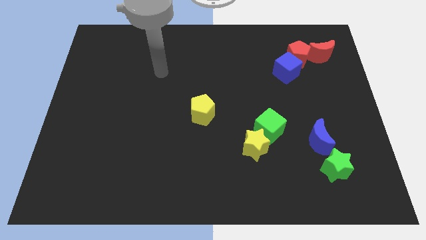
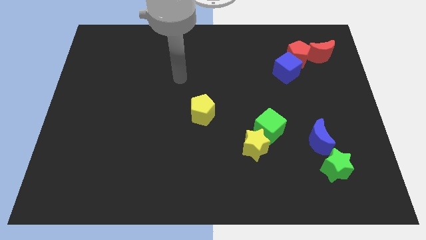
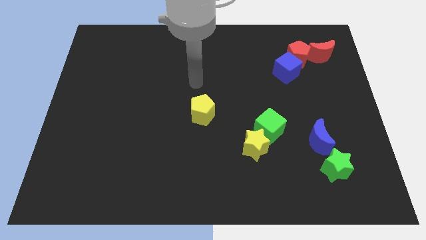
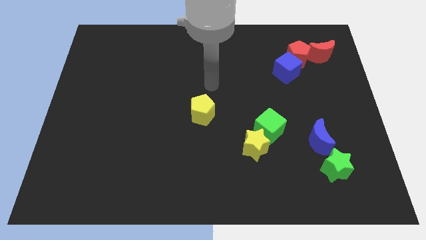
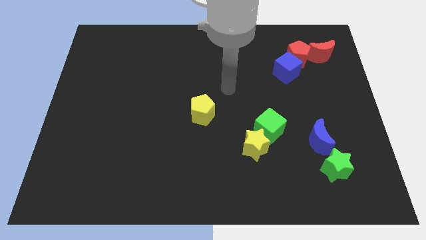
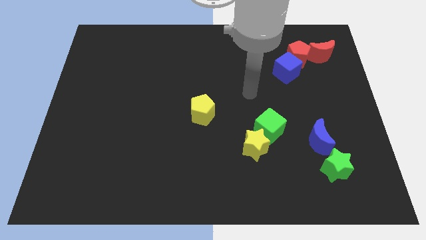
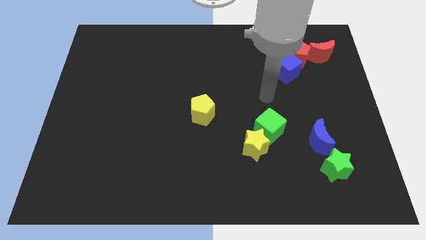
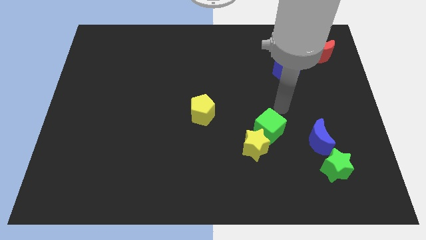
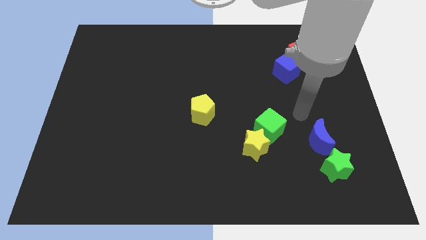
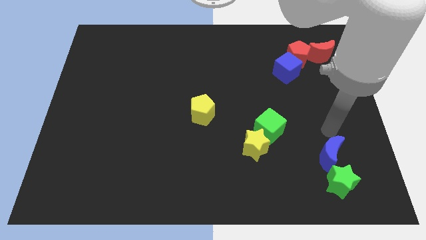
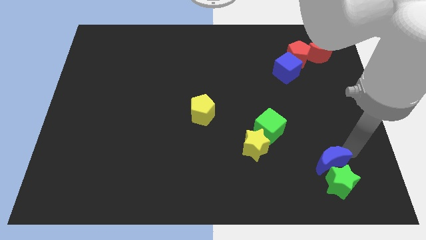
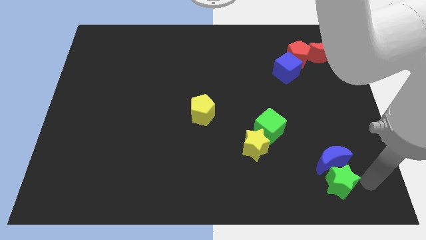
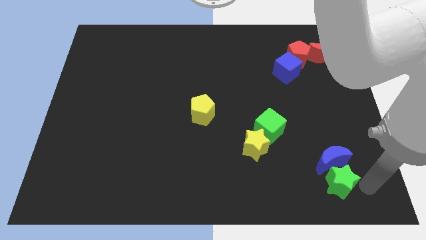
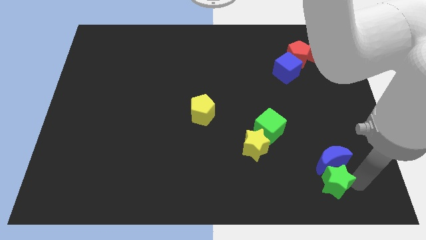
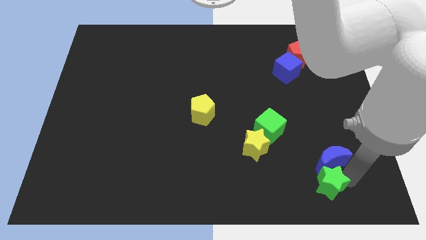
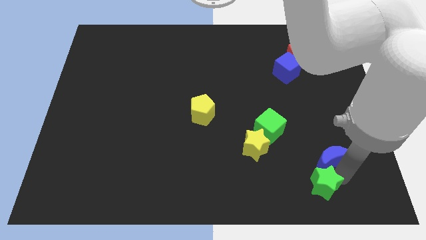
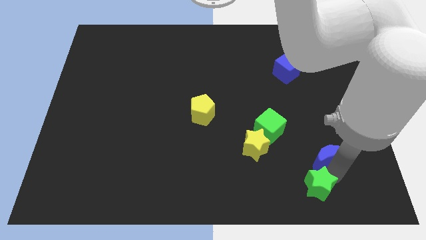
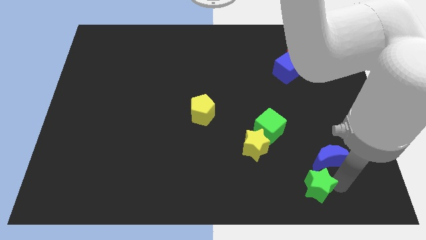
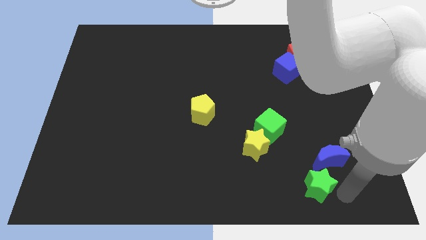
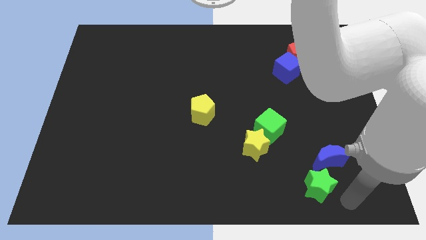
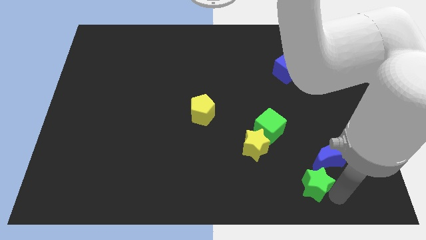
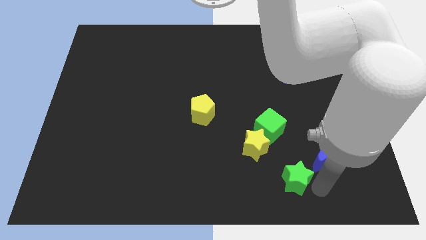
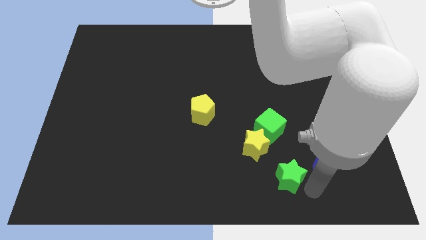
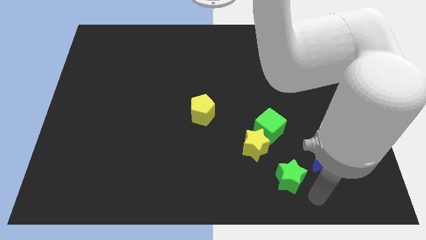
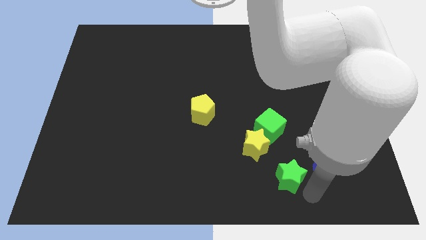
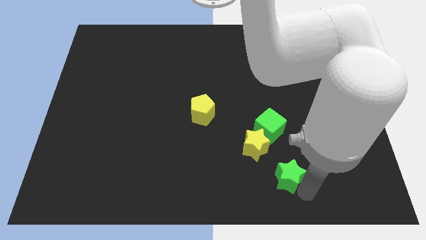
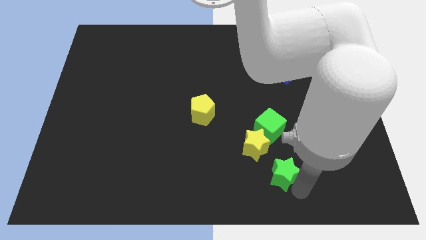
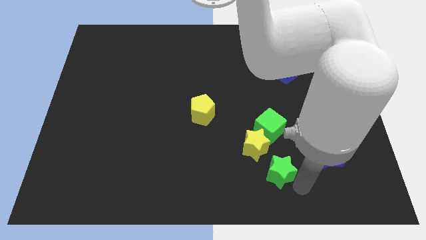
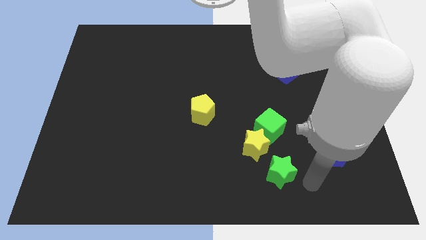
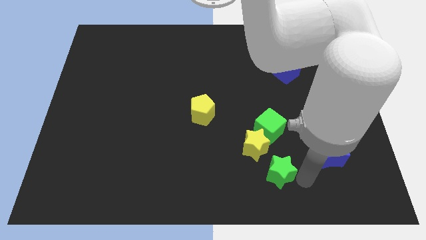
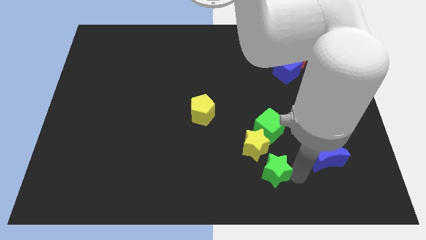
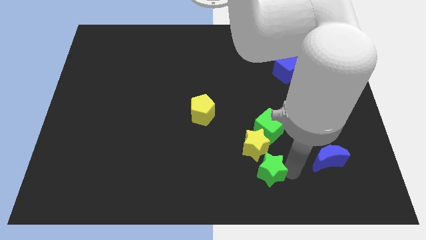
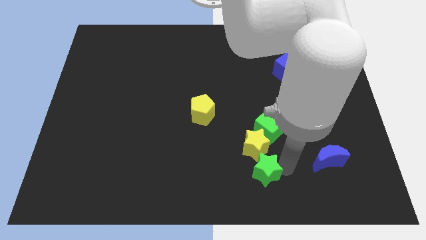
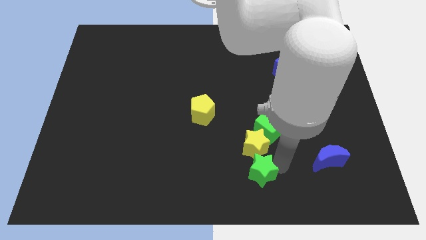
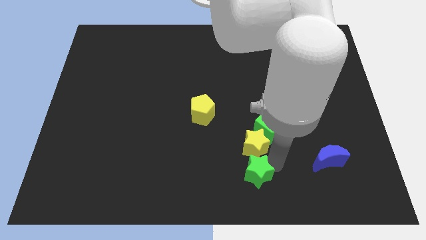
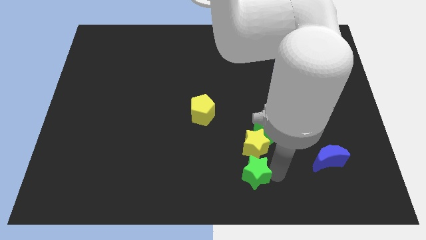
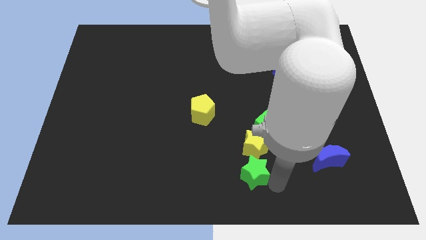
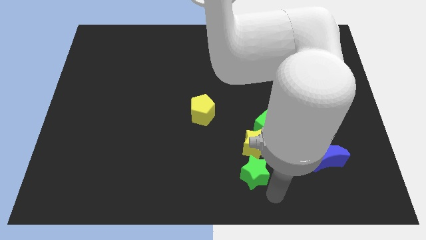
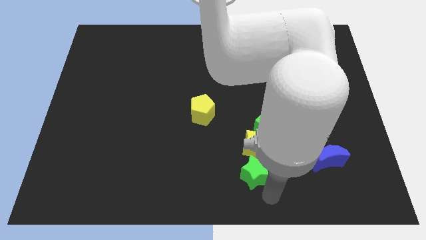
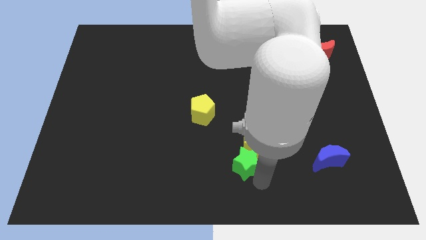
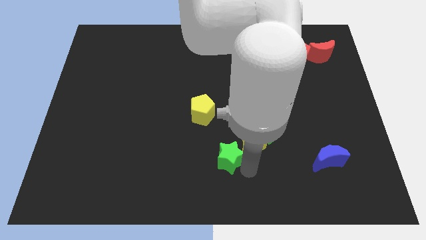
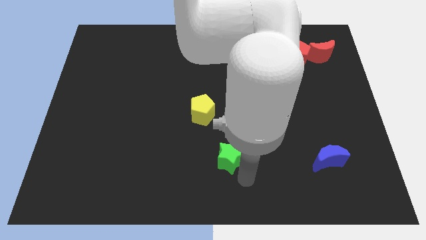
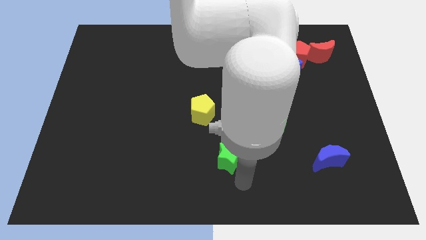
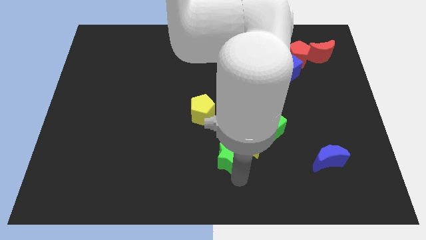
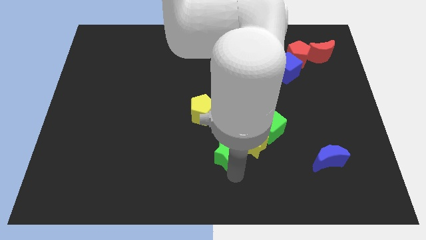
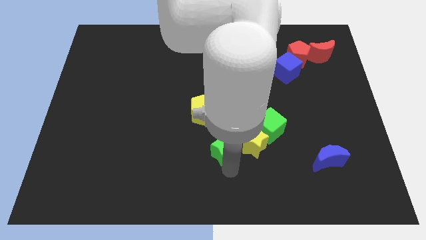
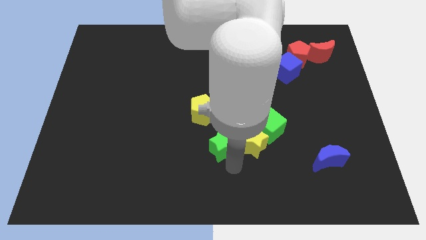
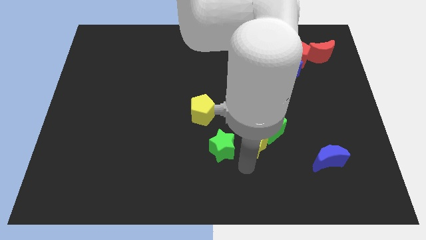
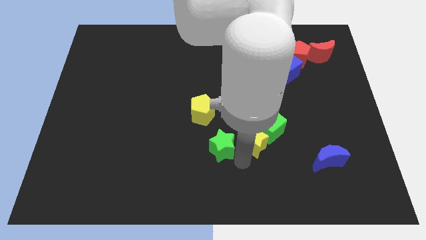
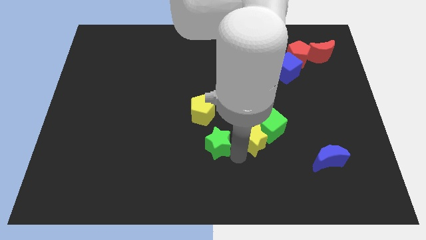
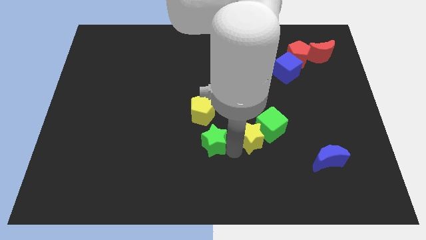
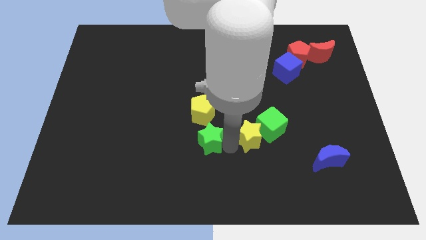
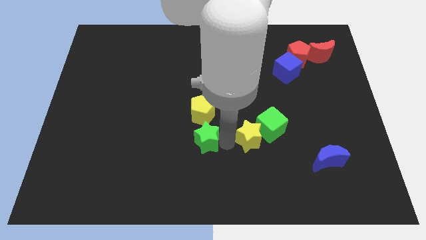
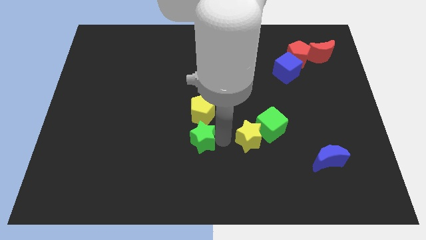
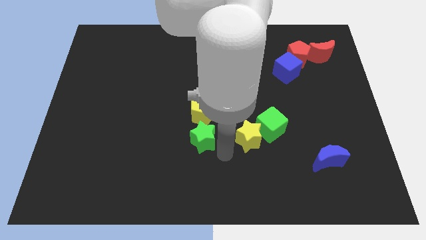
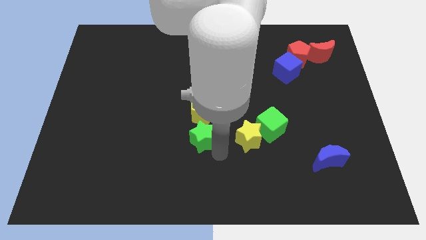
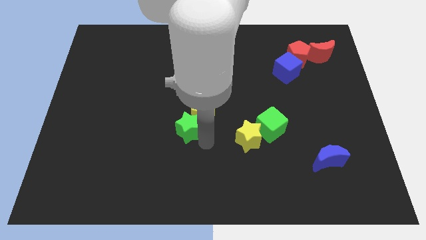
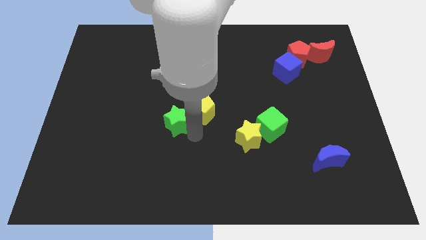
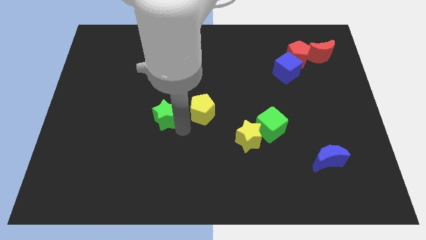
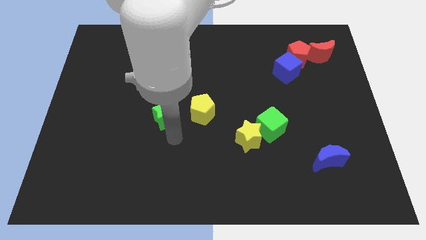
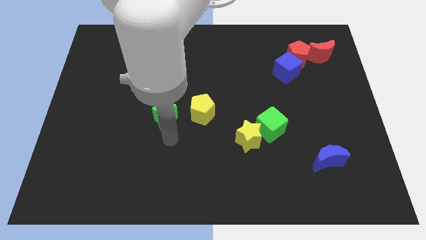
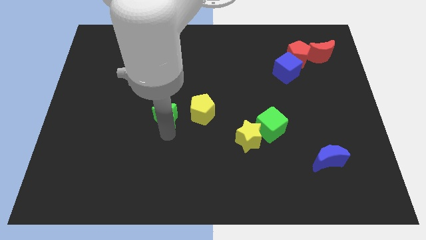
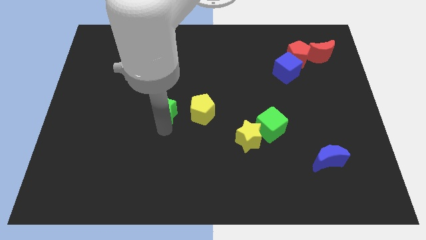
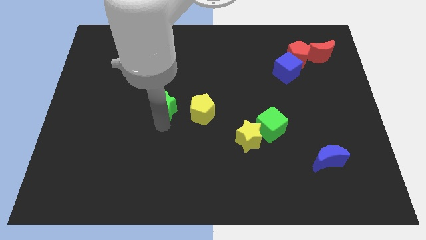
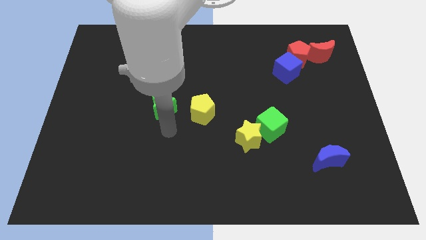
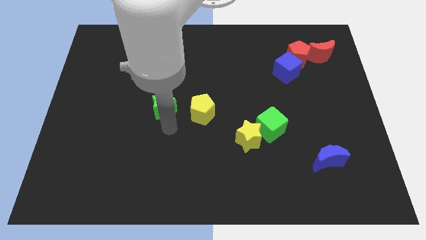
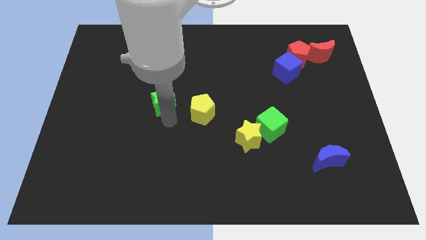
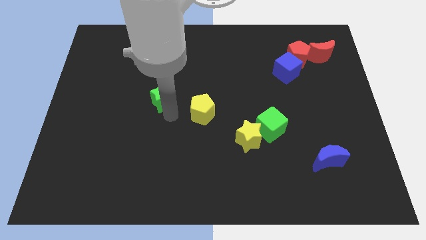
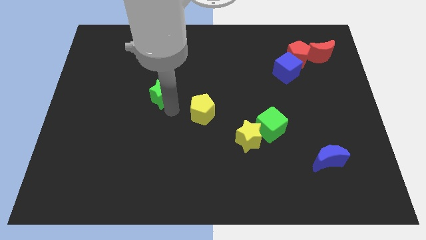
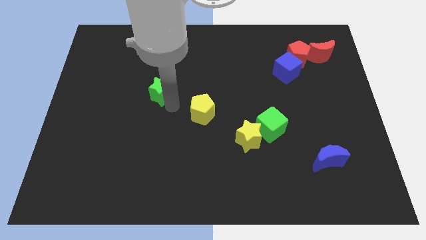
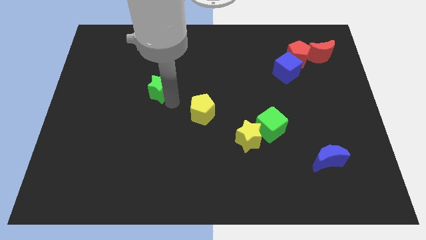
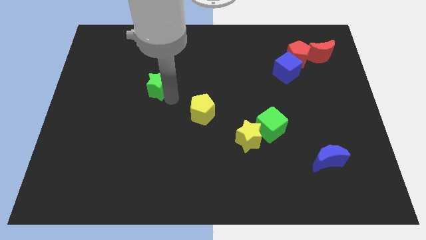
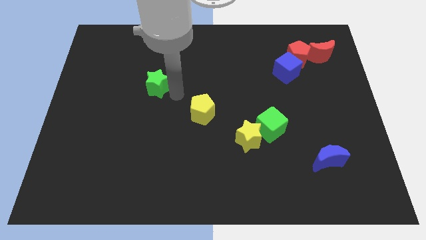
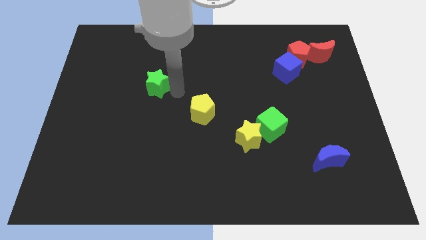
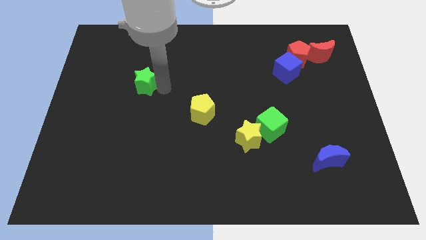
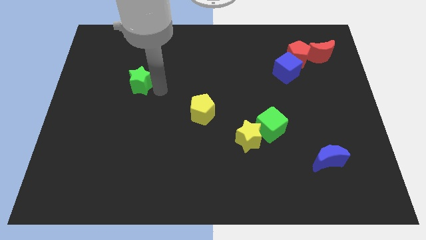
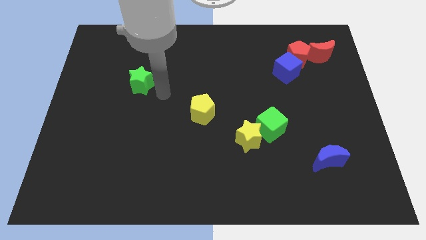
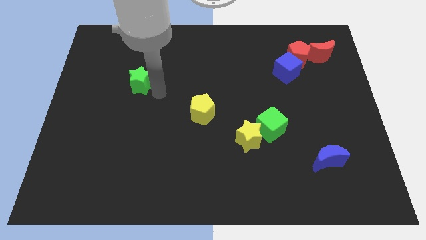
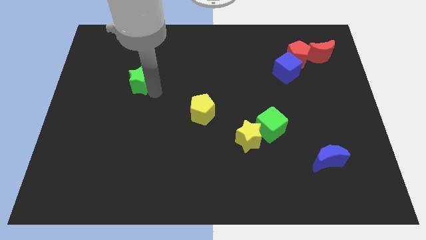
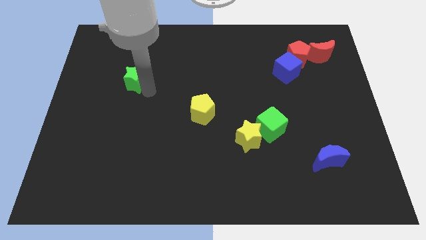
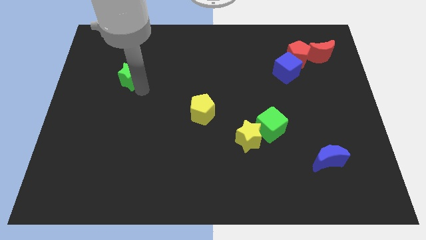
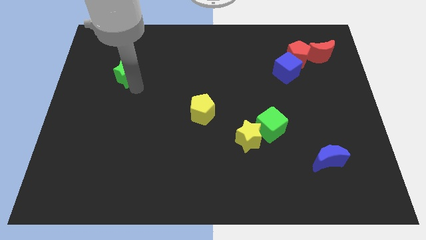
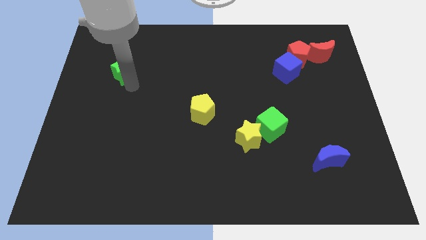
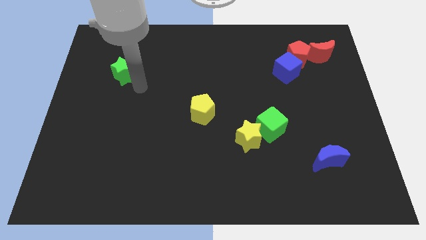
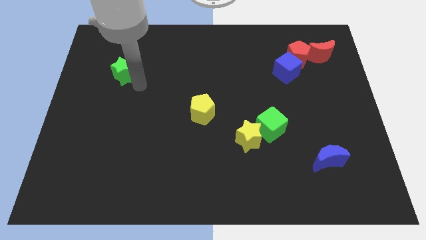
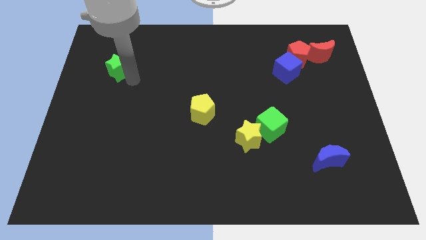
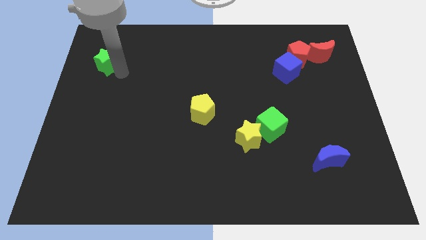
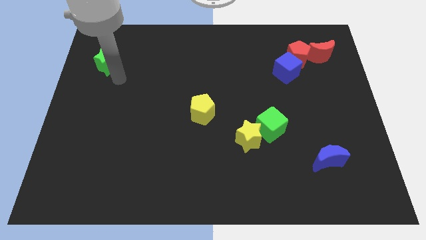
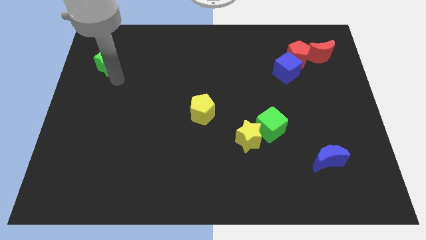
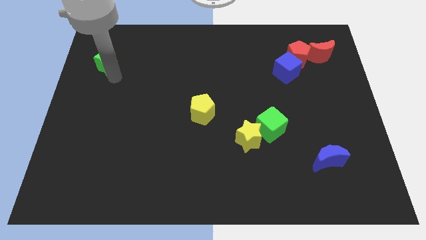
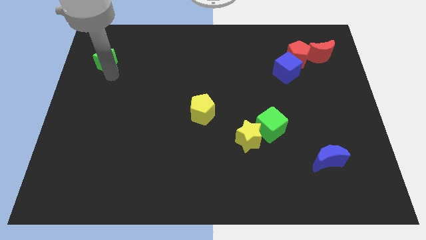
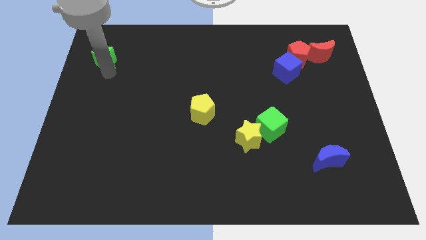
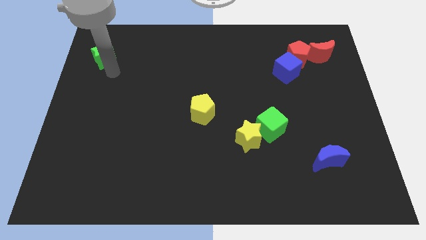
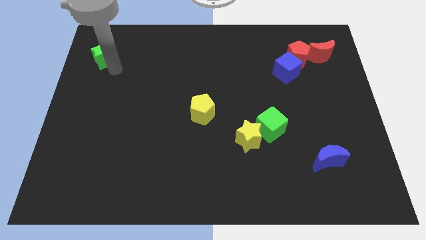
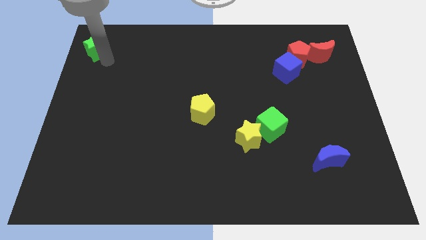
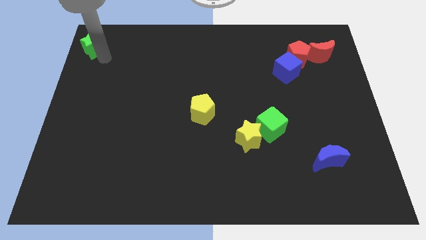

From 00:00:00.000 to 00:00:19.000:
move the green star to the upper left corner
